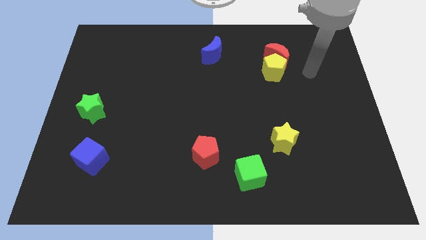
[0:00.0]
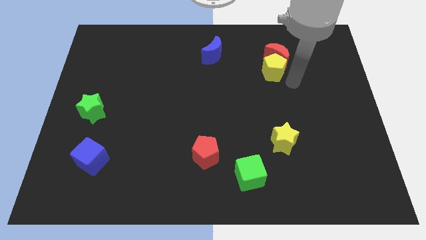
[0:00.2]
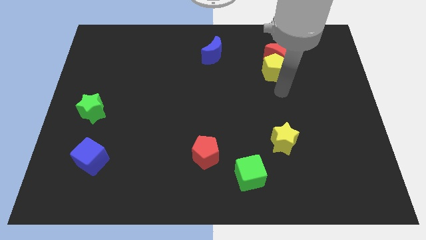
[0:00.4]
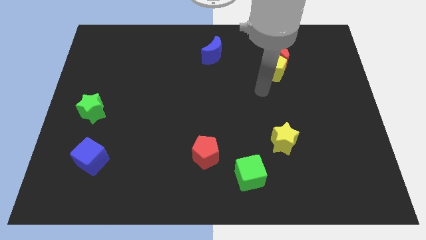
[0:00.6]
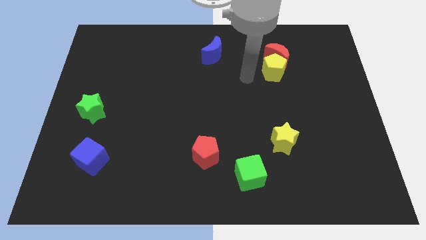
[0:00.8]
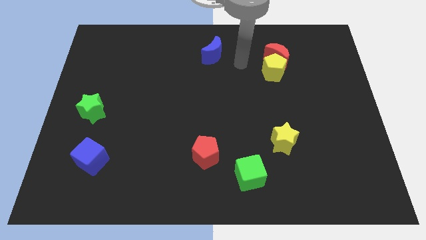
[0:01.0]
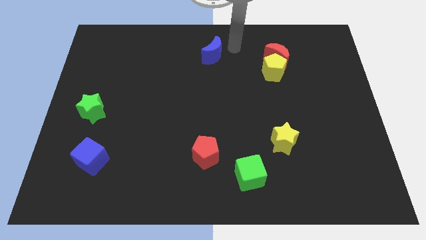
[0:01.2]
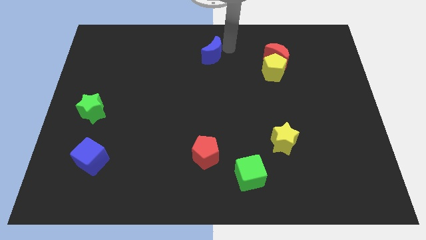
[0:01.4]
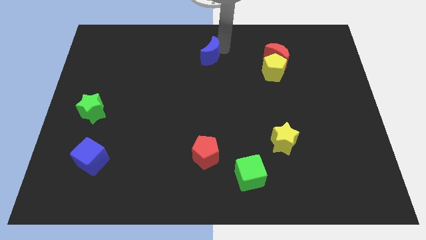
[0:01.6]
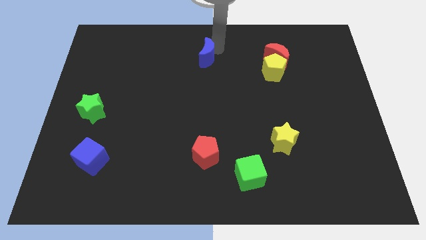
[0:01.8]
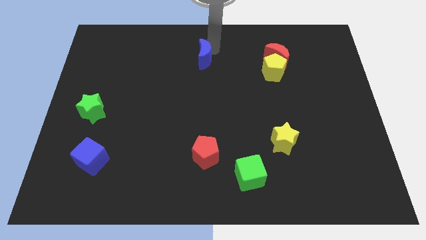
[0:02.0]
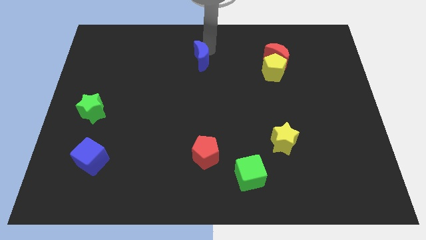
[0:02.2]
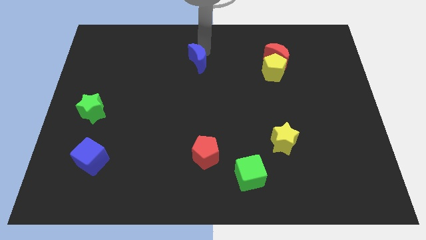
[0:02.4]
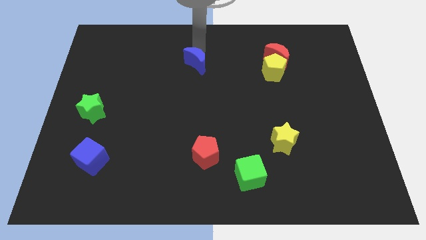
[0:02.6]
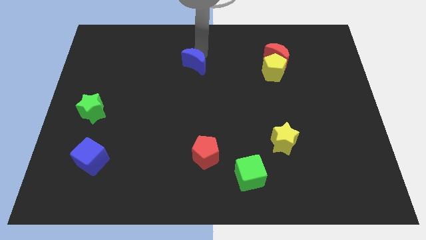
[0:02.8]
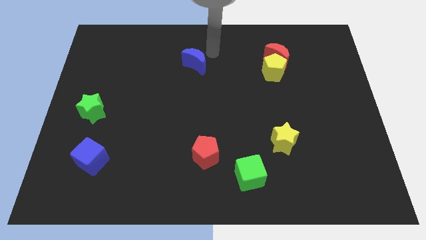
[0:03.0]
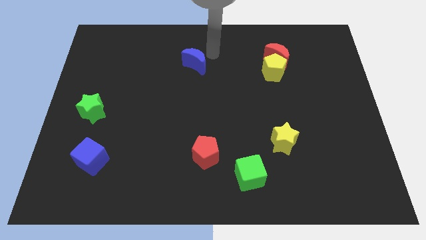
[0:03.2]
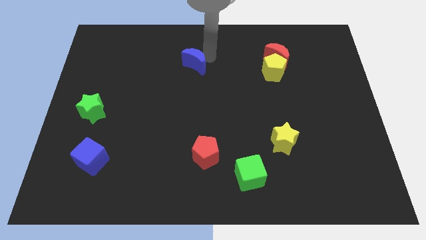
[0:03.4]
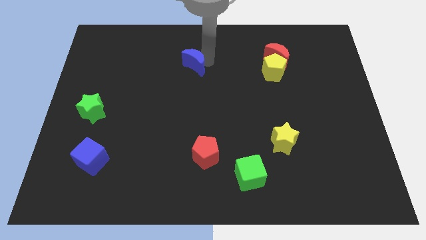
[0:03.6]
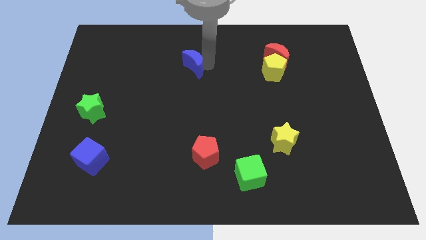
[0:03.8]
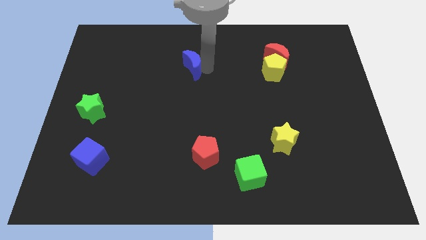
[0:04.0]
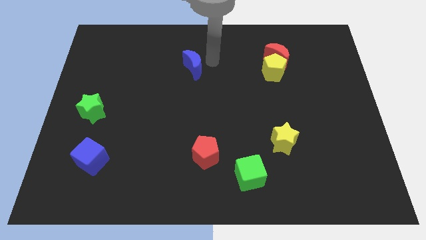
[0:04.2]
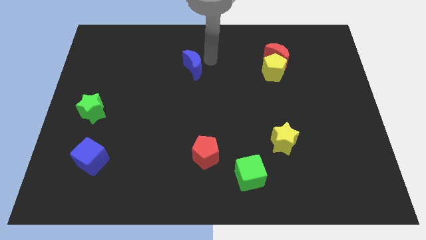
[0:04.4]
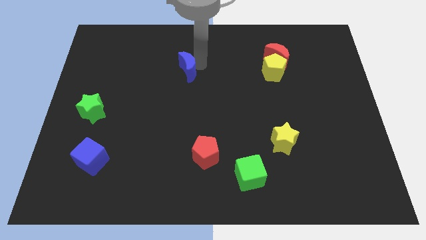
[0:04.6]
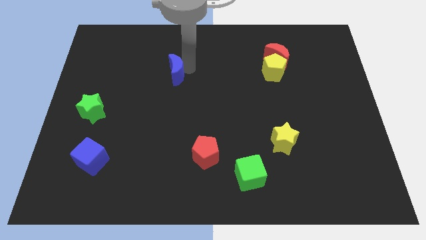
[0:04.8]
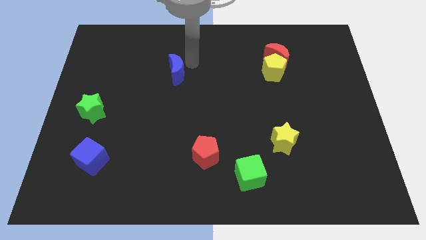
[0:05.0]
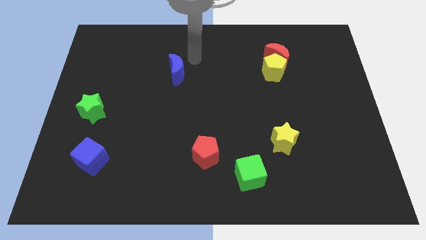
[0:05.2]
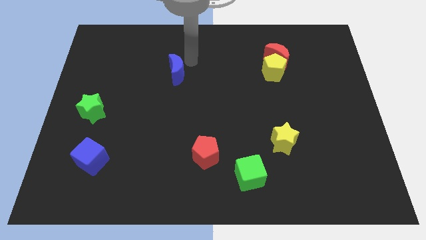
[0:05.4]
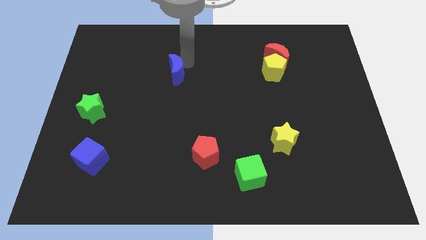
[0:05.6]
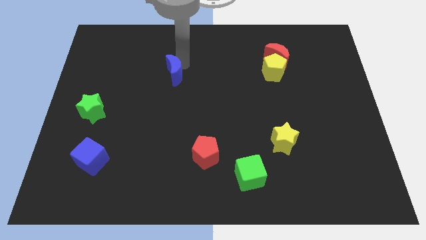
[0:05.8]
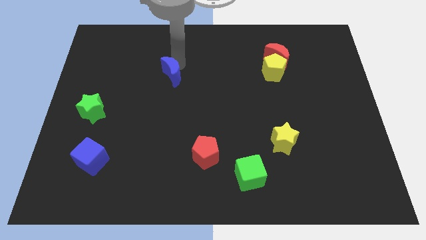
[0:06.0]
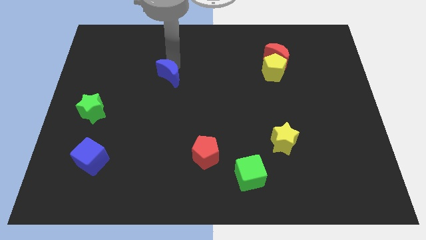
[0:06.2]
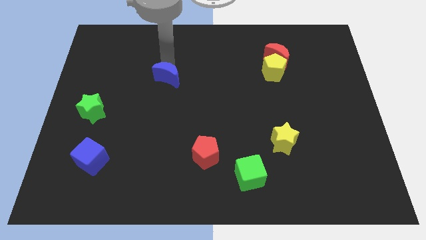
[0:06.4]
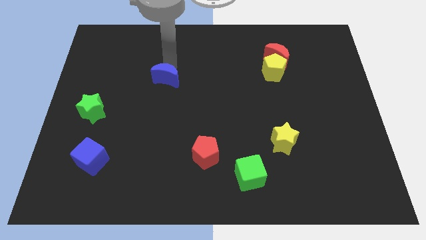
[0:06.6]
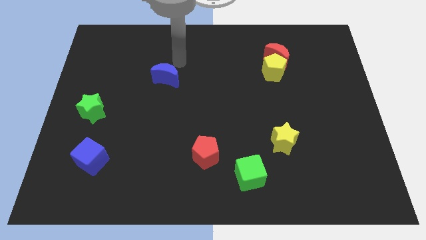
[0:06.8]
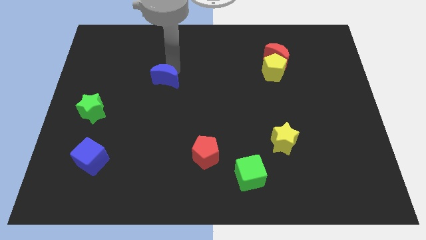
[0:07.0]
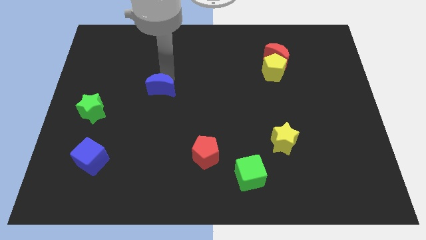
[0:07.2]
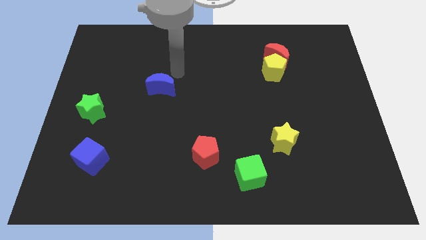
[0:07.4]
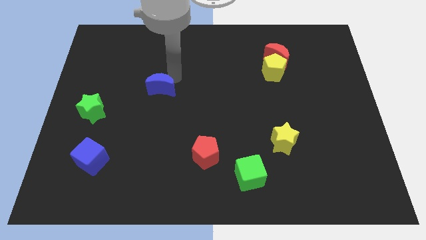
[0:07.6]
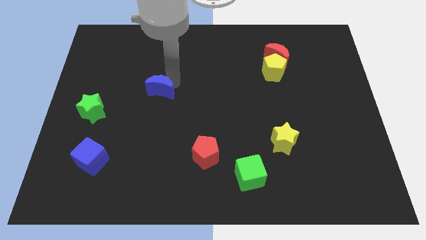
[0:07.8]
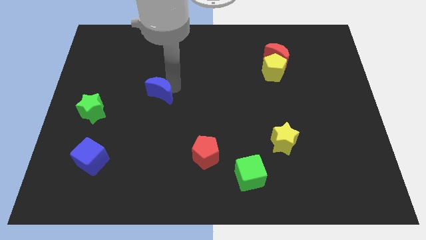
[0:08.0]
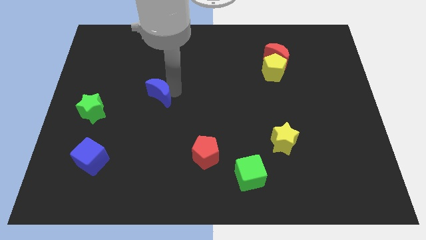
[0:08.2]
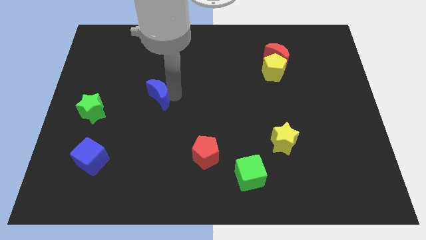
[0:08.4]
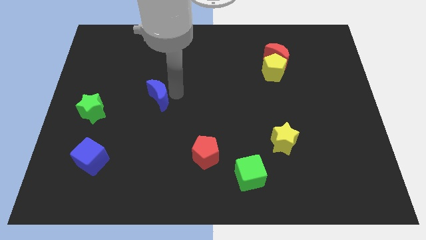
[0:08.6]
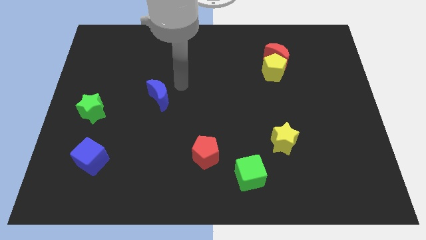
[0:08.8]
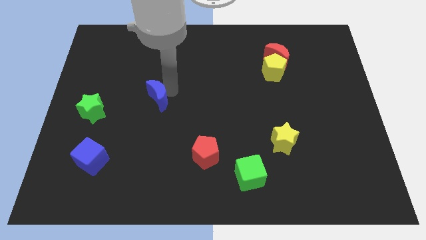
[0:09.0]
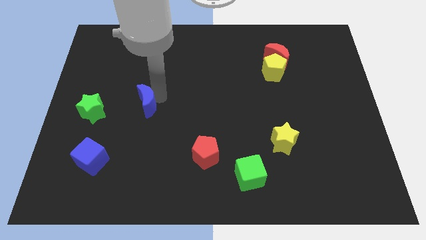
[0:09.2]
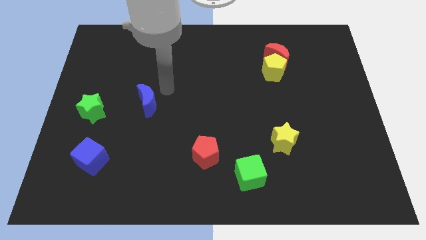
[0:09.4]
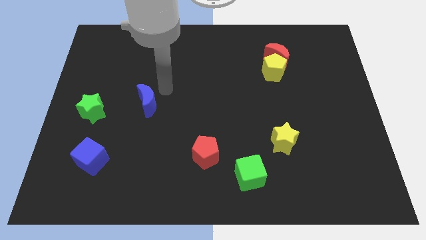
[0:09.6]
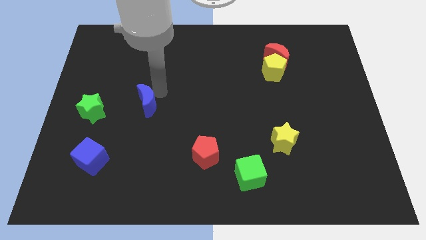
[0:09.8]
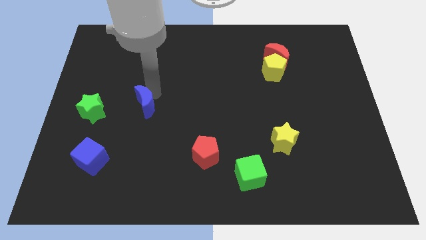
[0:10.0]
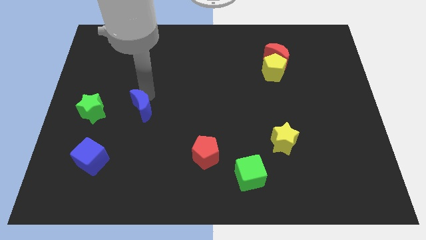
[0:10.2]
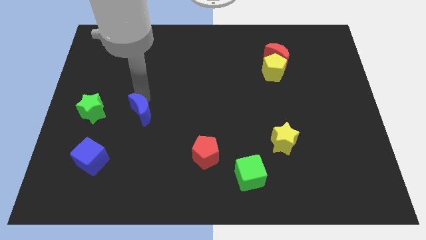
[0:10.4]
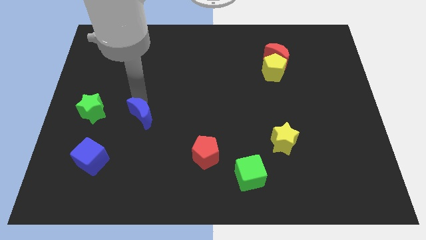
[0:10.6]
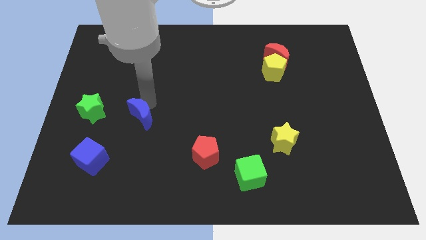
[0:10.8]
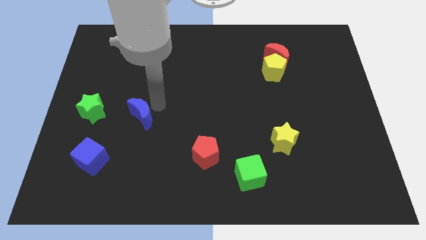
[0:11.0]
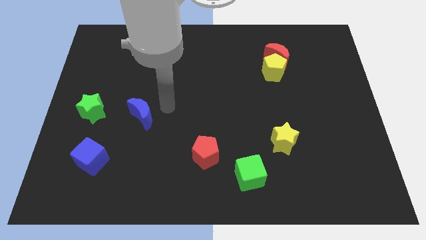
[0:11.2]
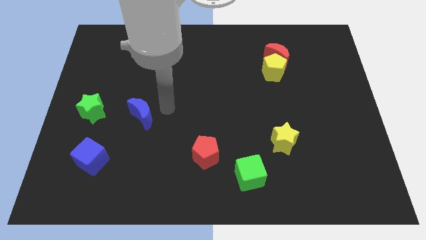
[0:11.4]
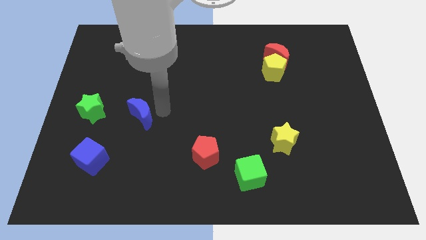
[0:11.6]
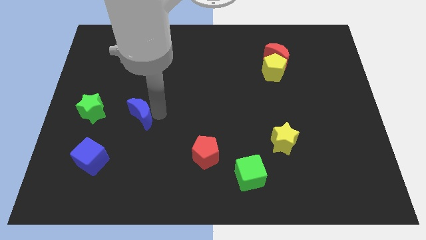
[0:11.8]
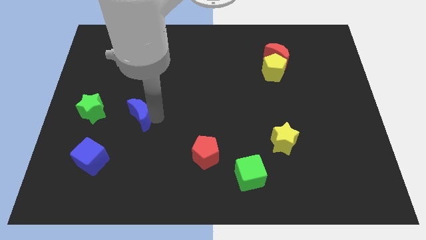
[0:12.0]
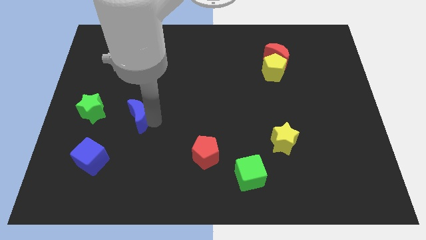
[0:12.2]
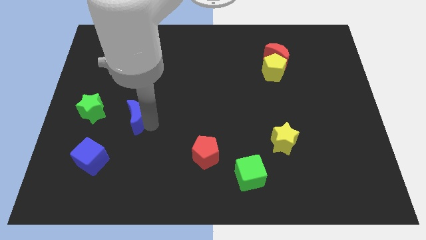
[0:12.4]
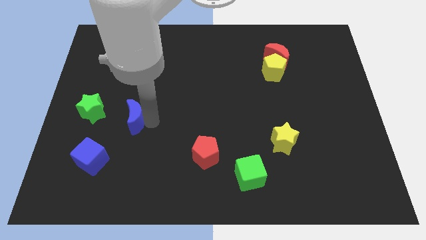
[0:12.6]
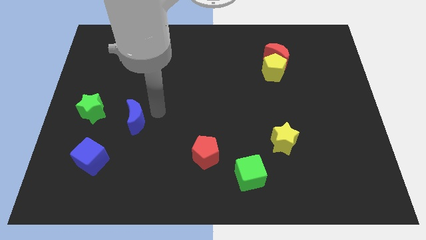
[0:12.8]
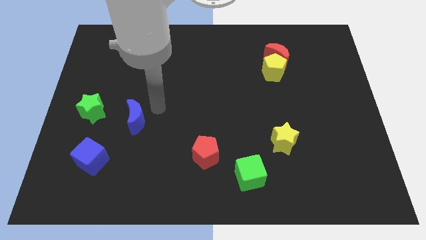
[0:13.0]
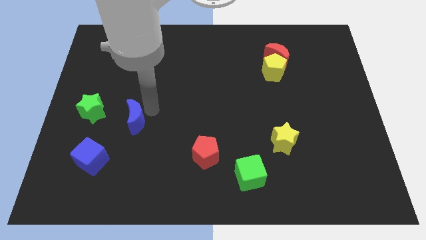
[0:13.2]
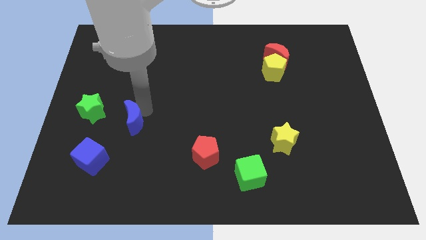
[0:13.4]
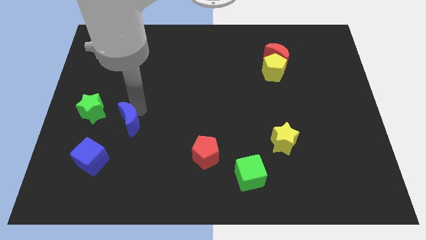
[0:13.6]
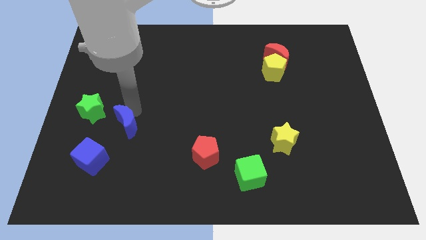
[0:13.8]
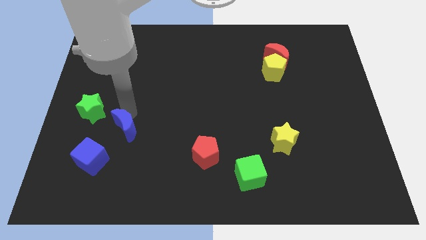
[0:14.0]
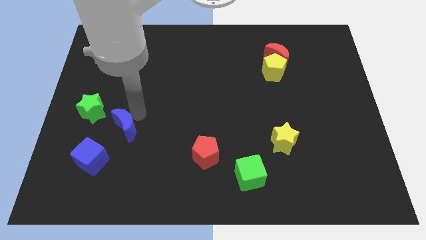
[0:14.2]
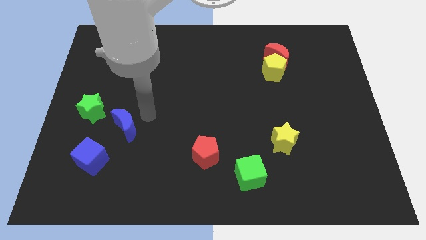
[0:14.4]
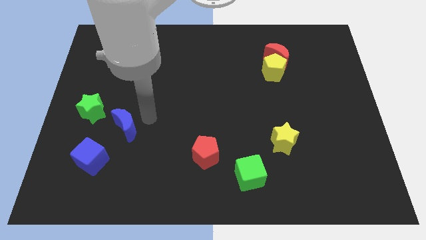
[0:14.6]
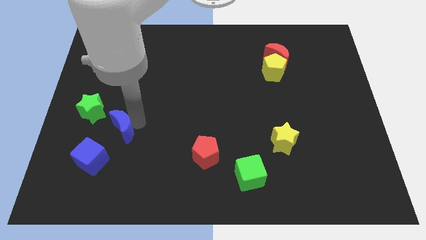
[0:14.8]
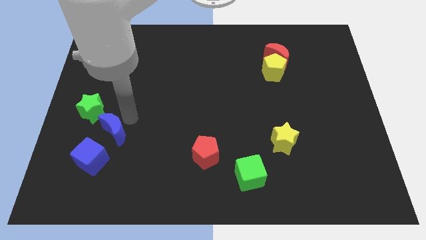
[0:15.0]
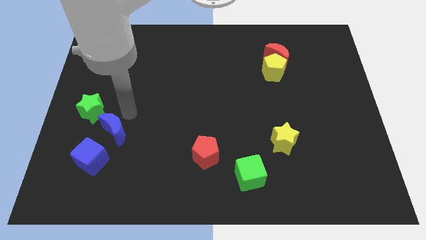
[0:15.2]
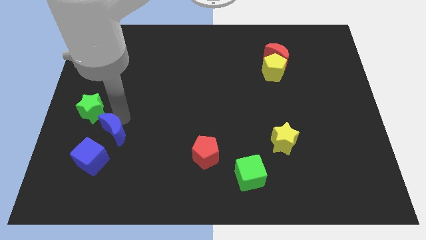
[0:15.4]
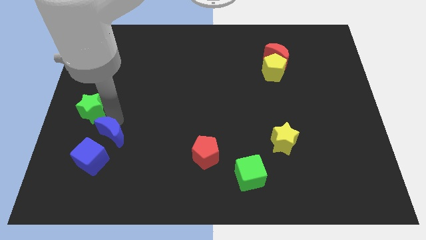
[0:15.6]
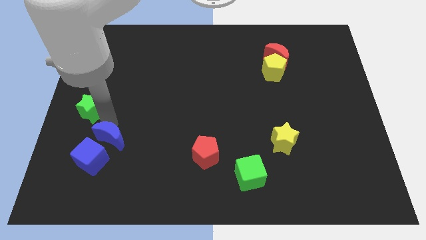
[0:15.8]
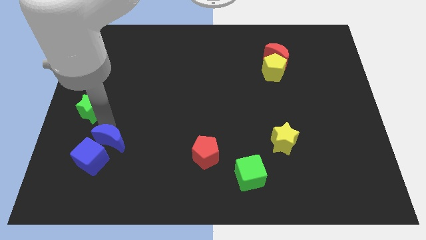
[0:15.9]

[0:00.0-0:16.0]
slide the blue moon towards the blue cube

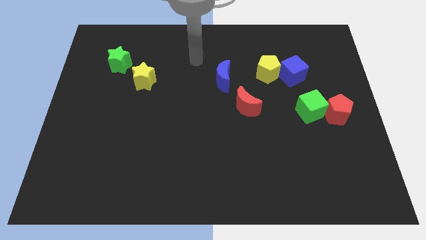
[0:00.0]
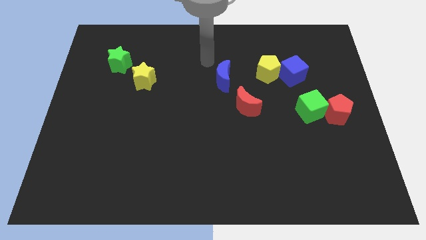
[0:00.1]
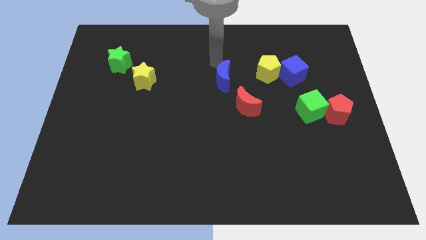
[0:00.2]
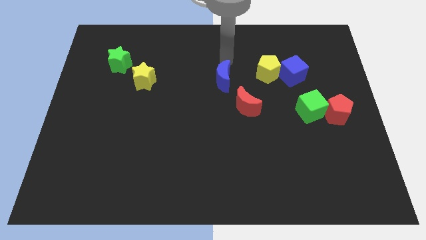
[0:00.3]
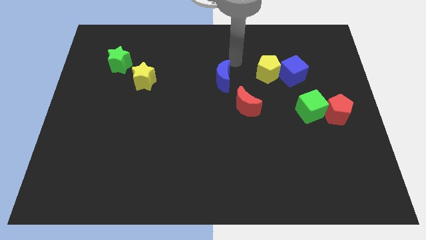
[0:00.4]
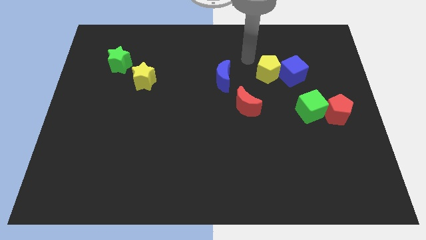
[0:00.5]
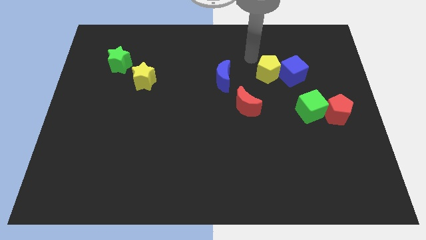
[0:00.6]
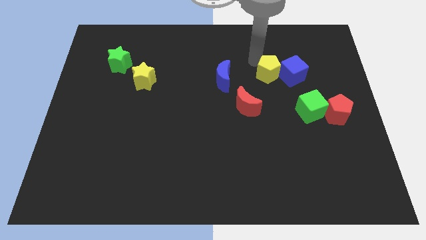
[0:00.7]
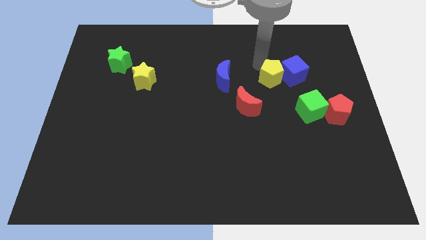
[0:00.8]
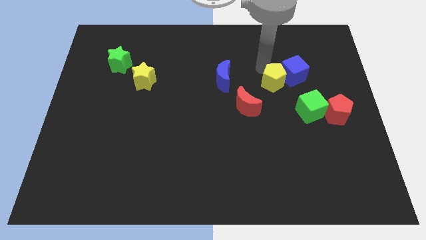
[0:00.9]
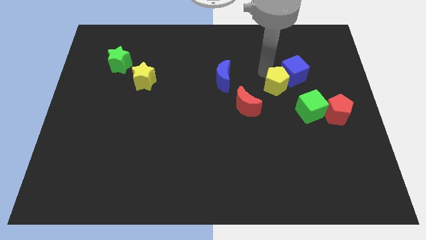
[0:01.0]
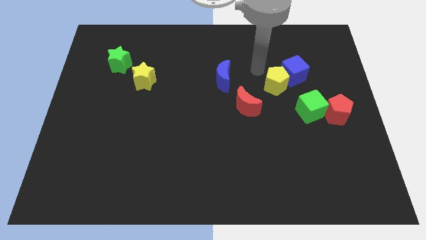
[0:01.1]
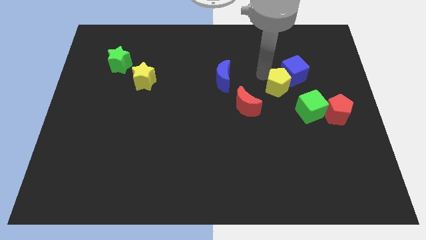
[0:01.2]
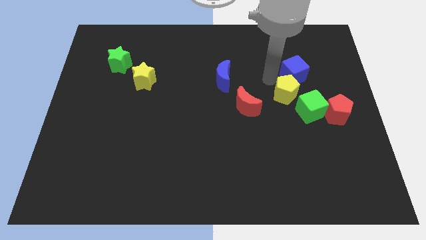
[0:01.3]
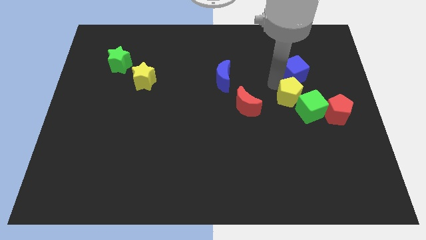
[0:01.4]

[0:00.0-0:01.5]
push the yellow pentagon next to the green cube
